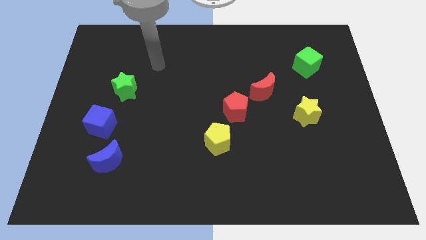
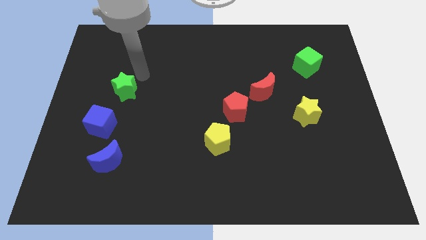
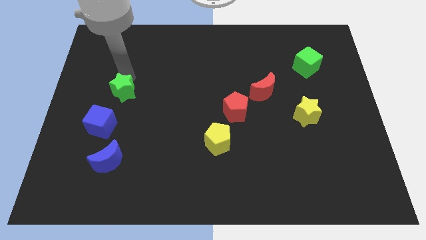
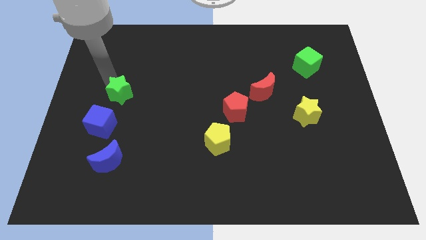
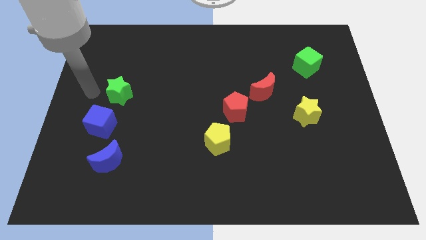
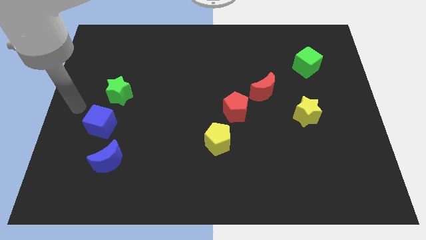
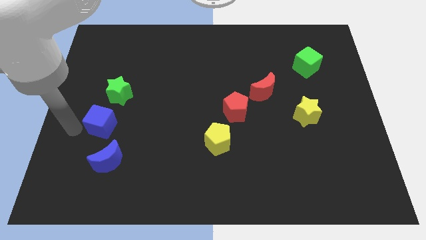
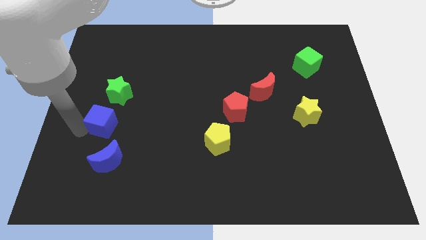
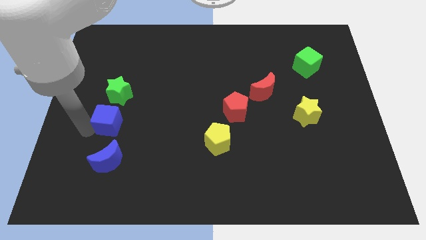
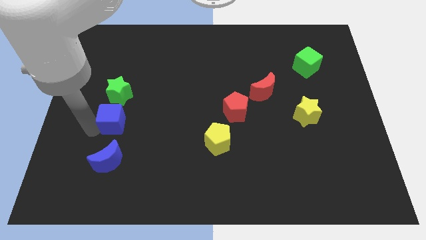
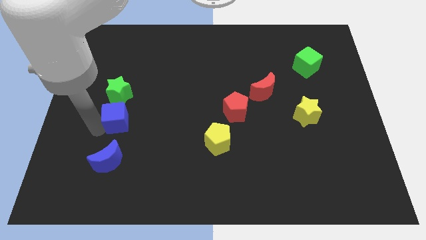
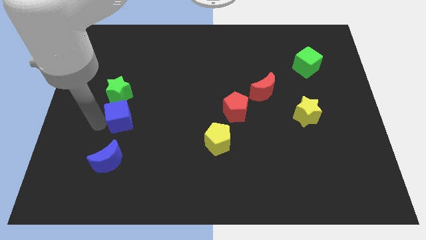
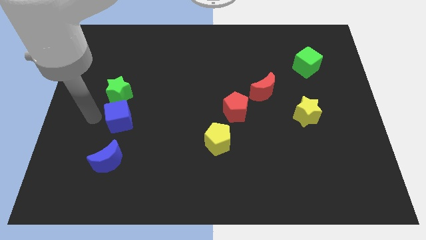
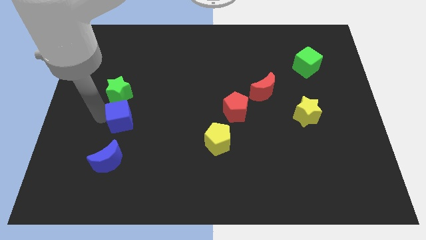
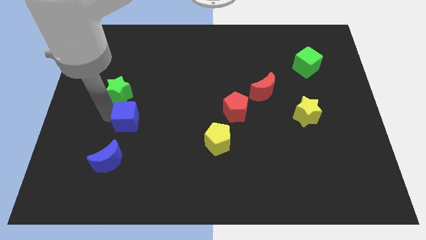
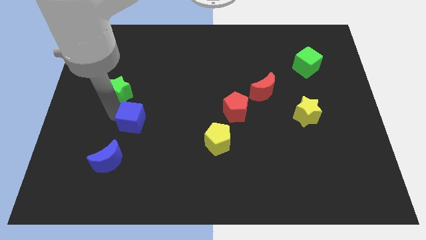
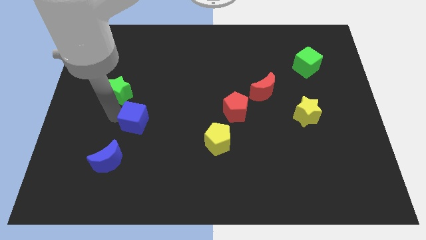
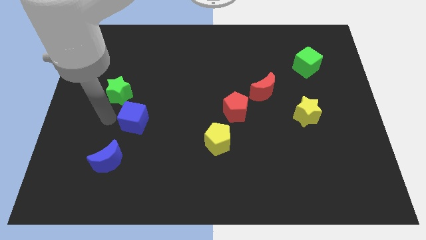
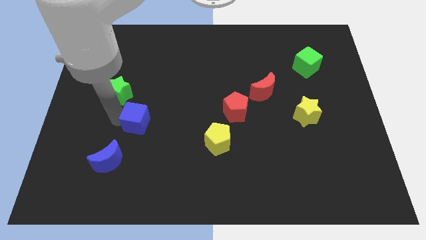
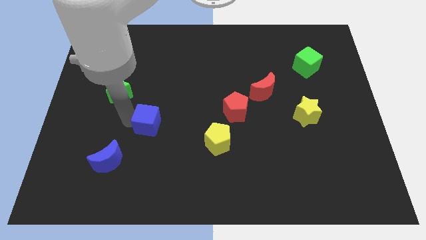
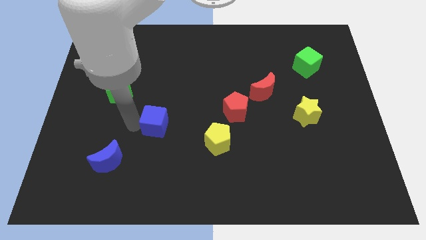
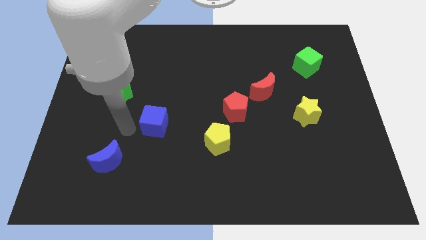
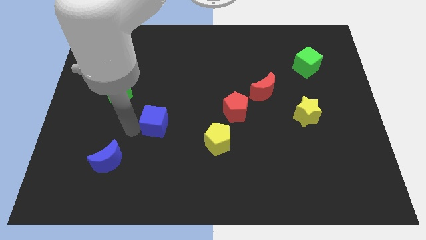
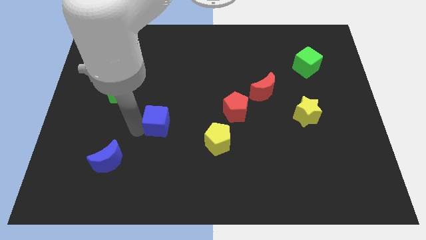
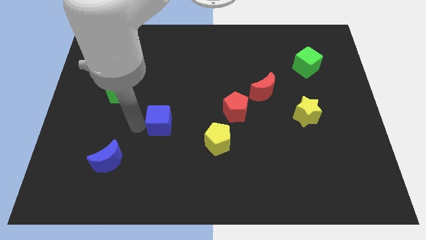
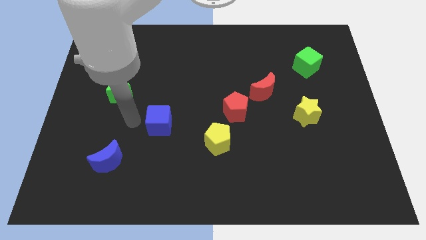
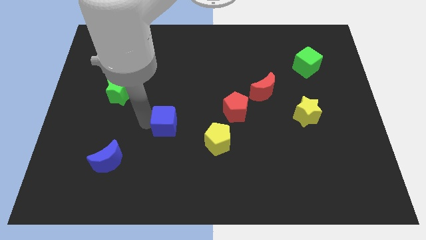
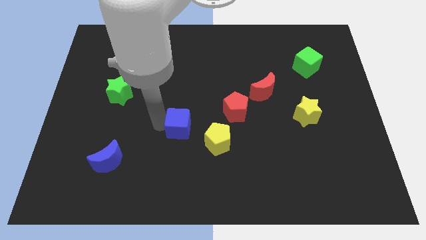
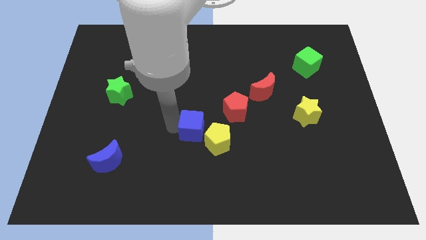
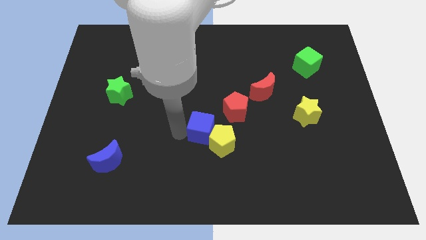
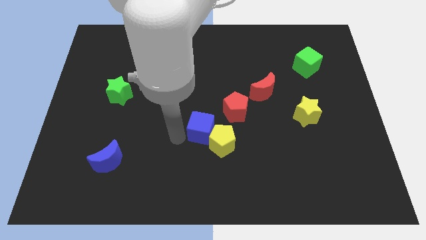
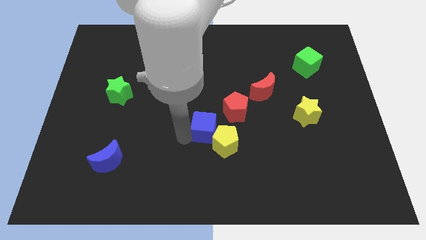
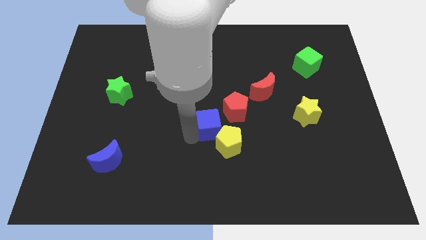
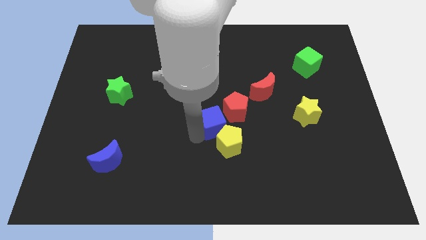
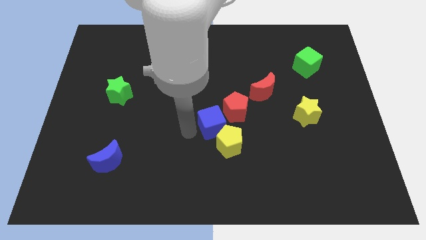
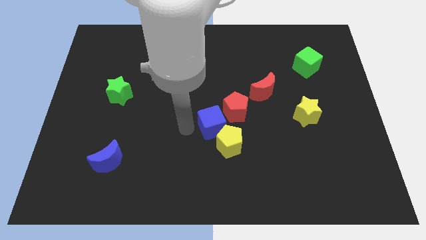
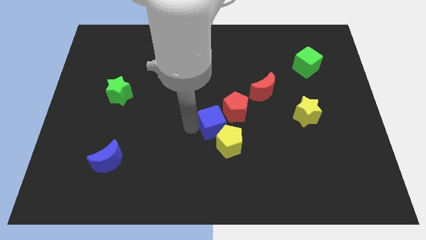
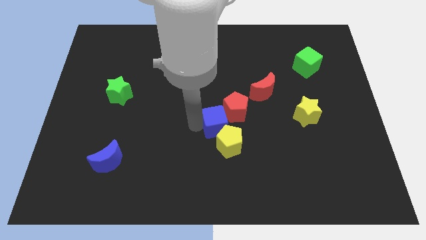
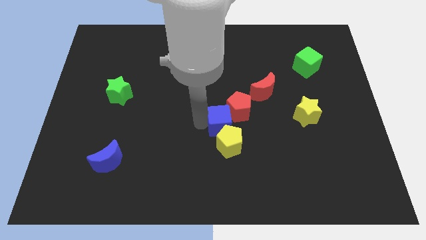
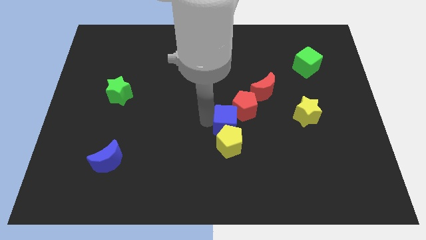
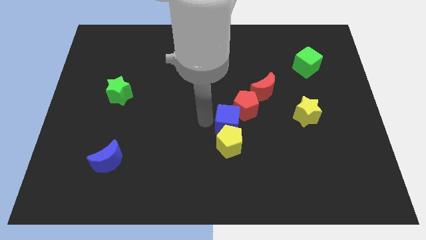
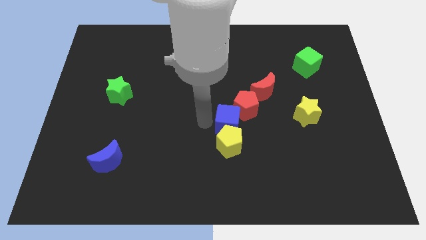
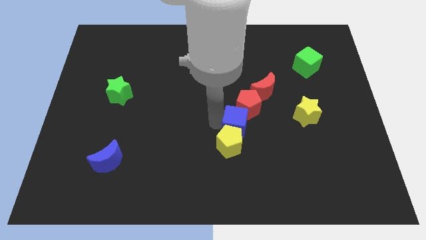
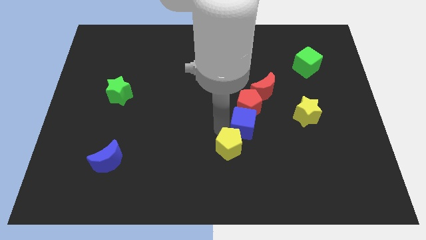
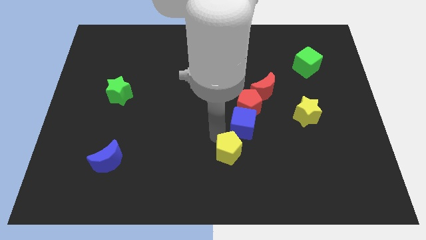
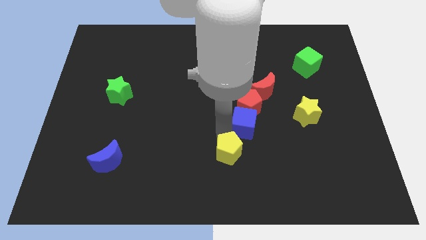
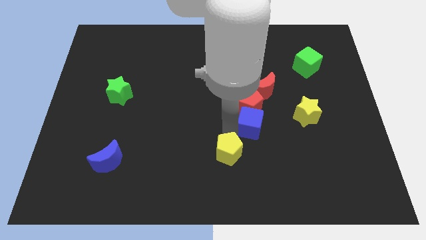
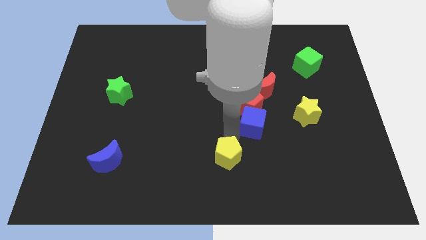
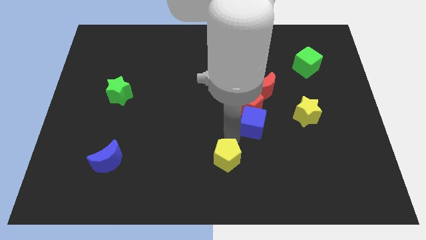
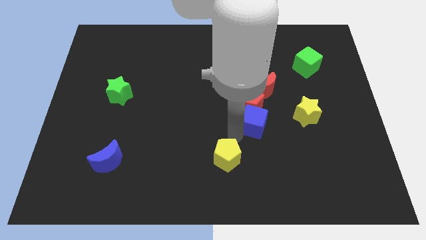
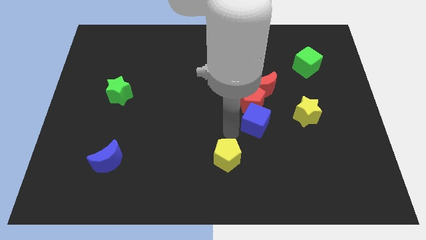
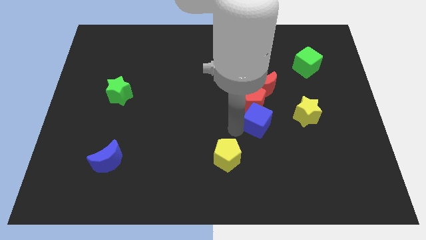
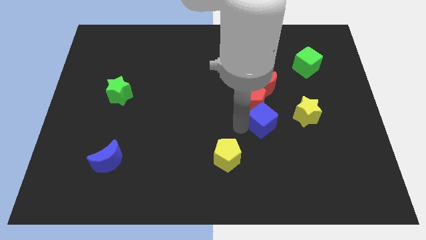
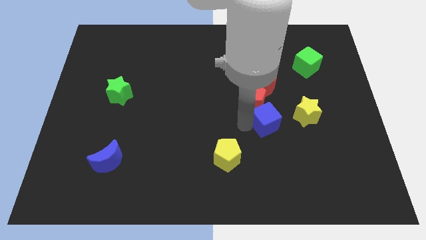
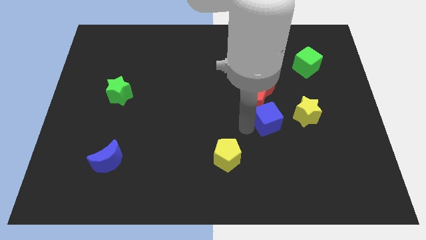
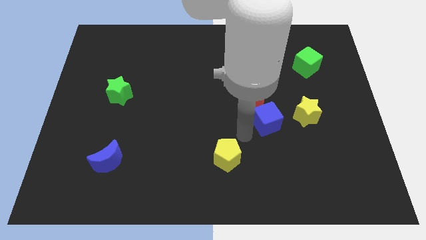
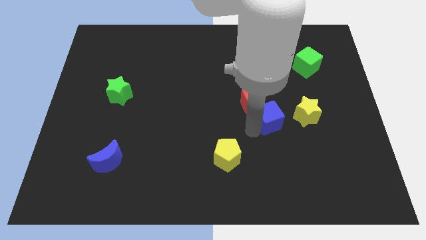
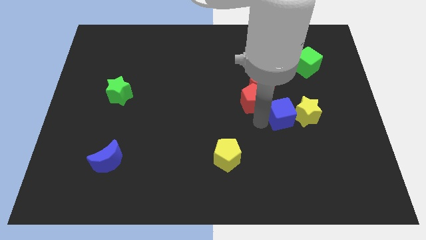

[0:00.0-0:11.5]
push the blue cube to the yellow star

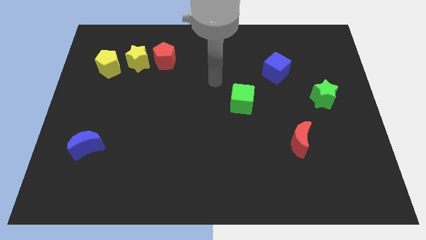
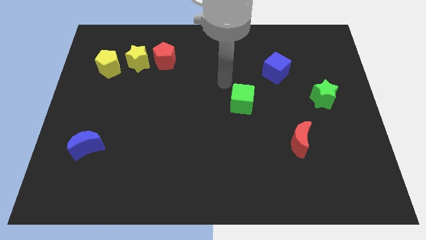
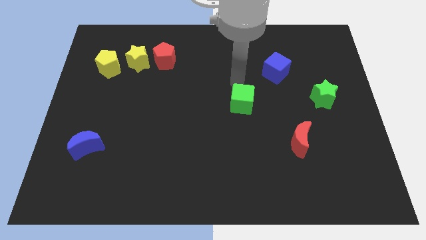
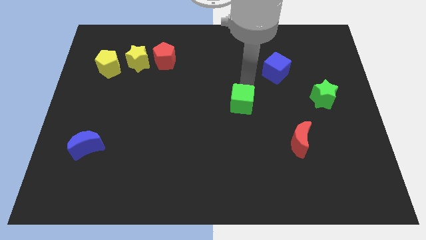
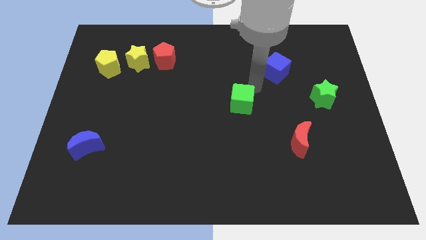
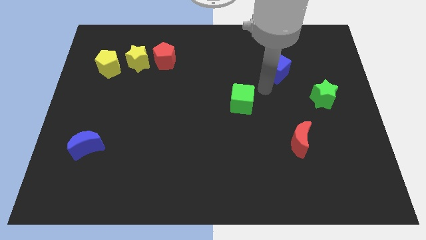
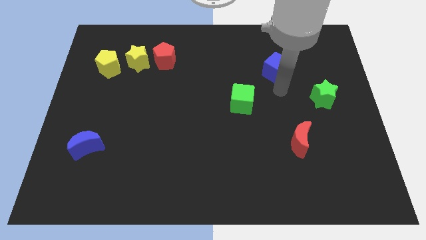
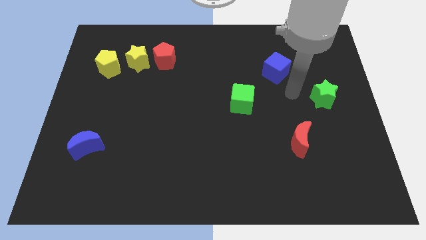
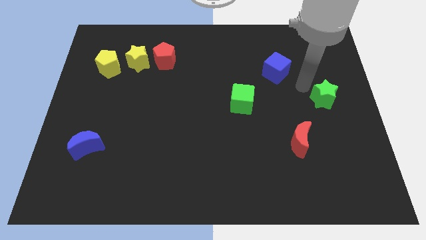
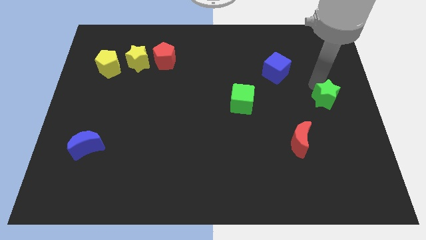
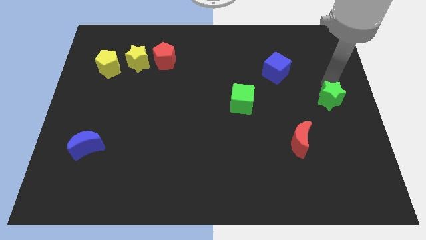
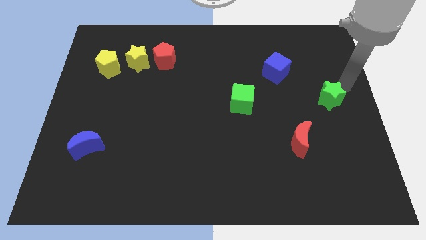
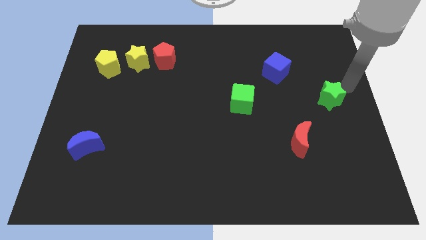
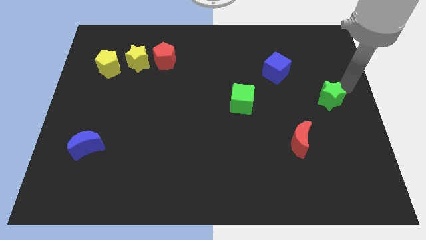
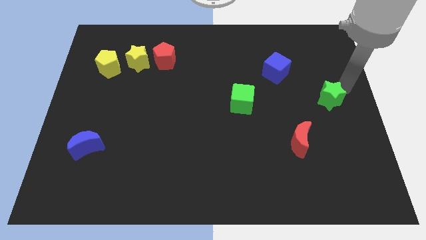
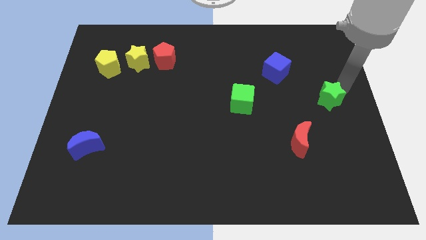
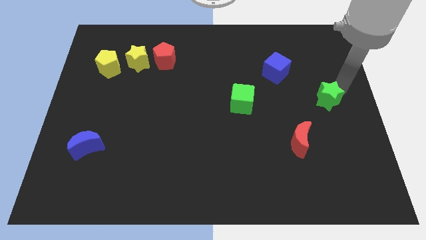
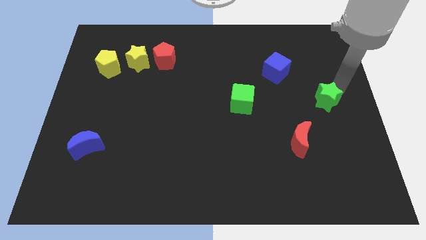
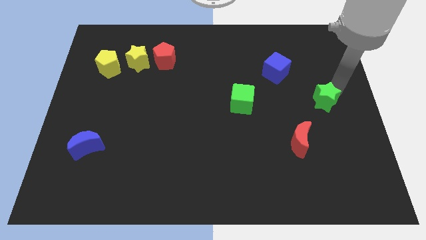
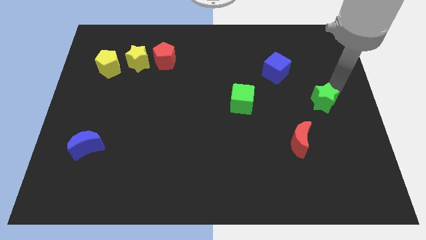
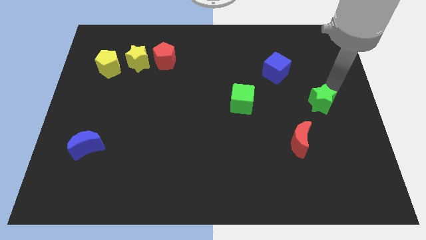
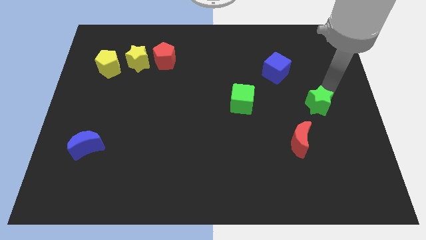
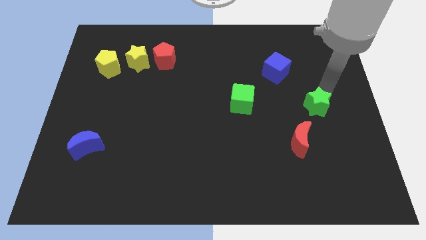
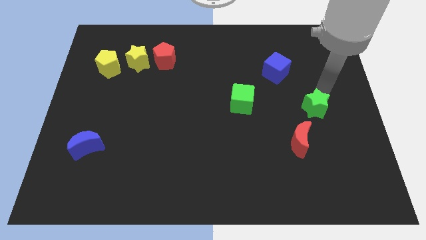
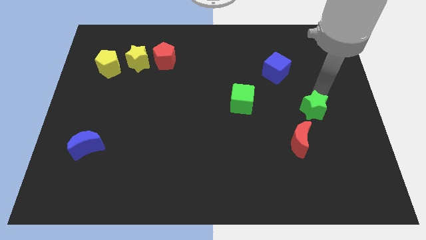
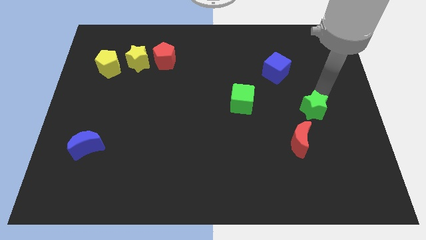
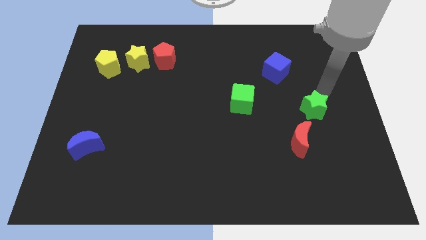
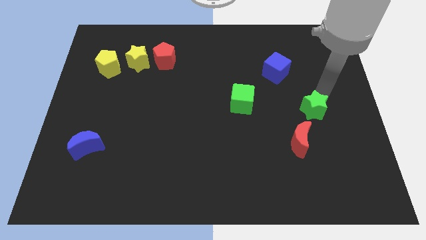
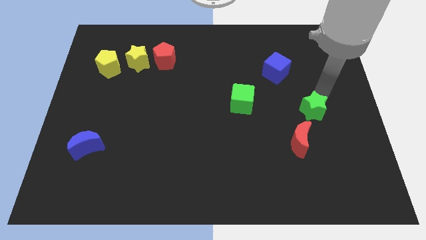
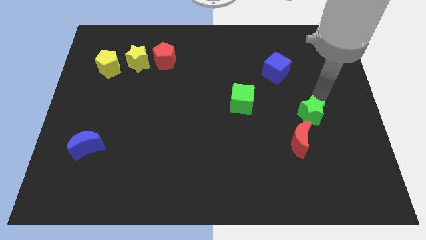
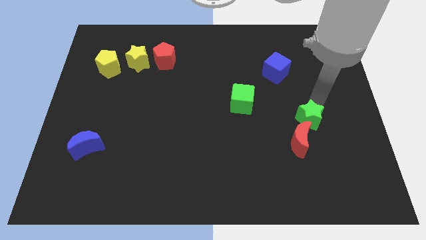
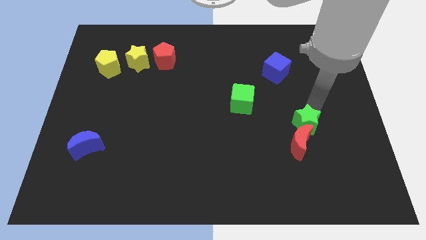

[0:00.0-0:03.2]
put the green star next to the red moon
